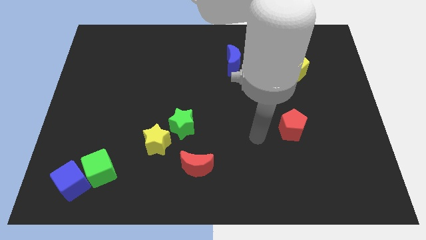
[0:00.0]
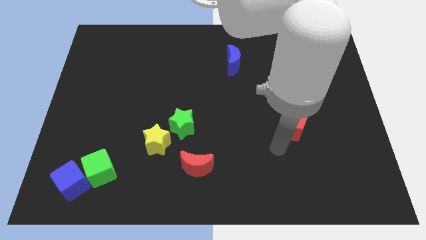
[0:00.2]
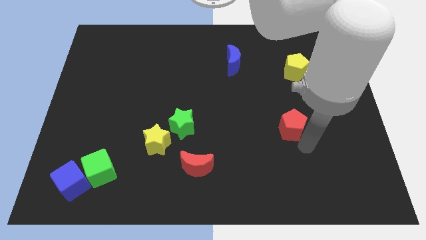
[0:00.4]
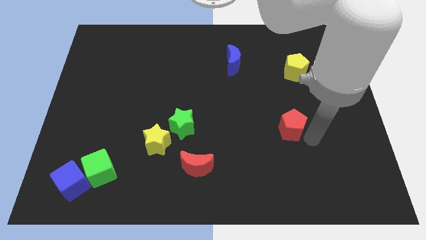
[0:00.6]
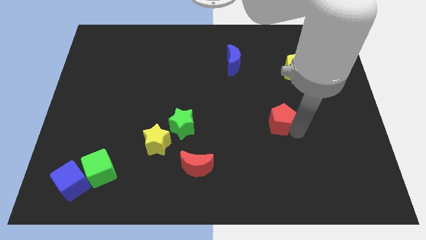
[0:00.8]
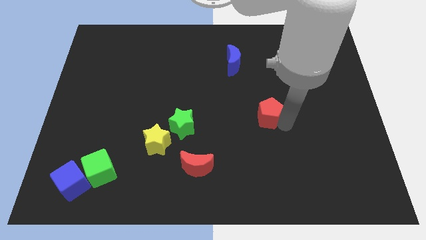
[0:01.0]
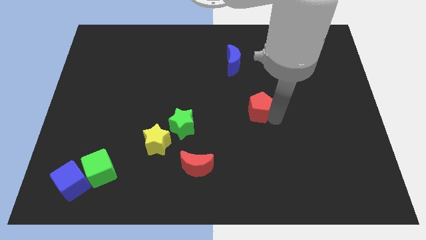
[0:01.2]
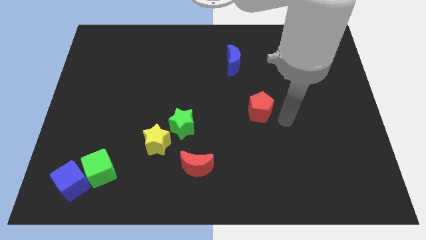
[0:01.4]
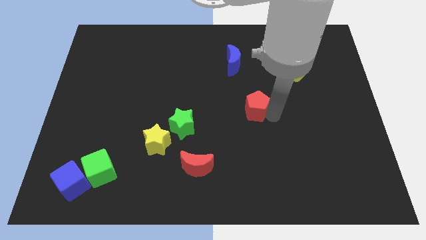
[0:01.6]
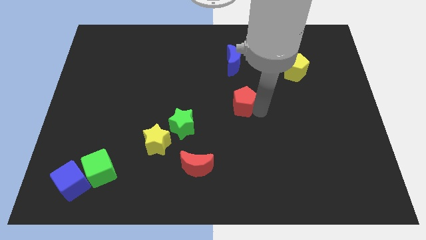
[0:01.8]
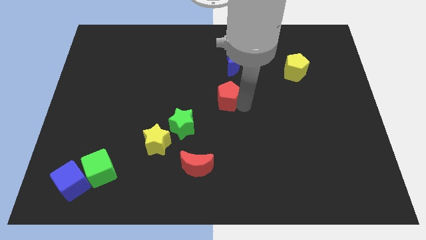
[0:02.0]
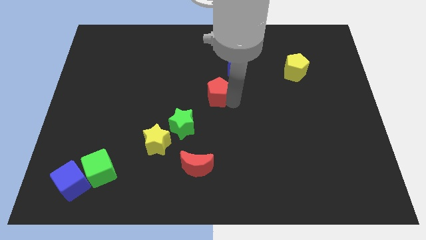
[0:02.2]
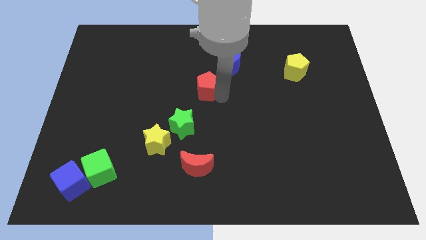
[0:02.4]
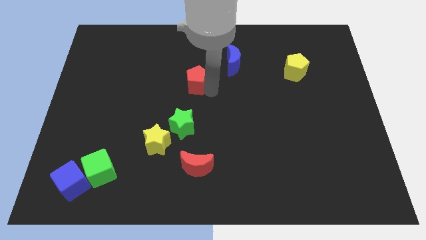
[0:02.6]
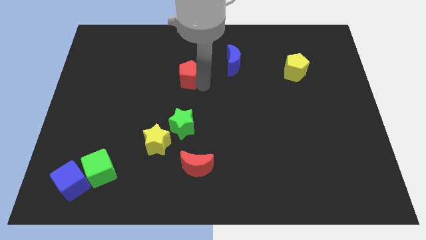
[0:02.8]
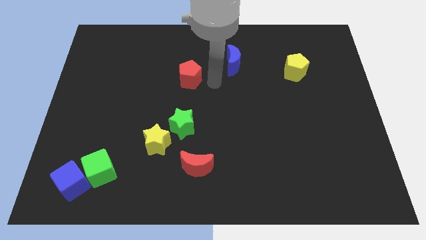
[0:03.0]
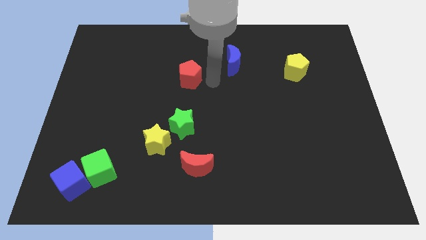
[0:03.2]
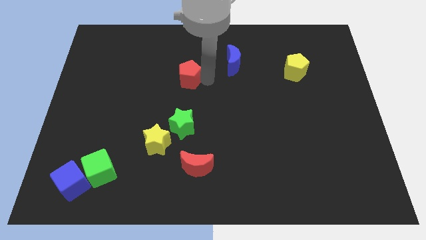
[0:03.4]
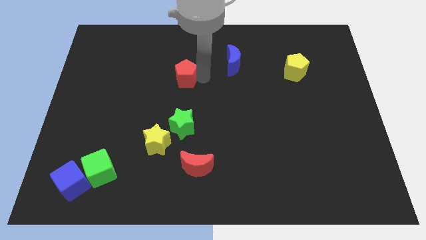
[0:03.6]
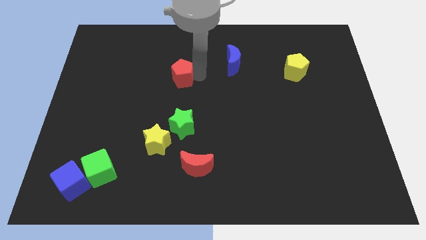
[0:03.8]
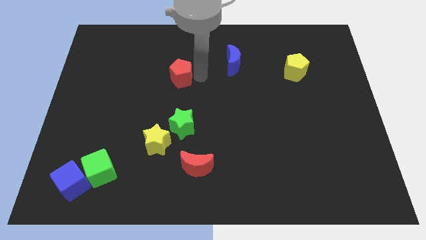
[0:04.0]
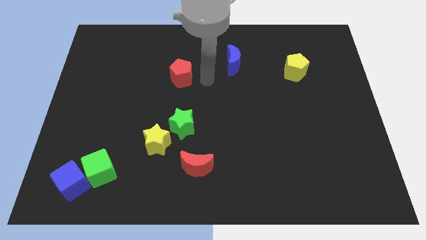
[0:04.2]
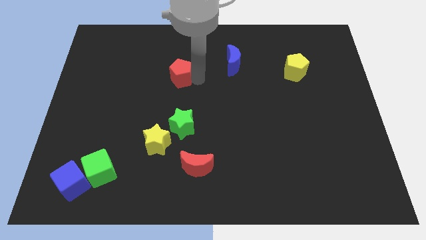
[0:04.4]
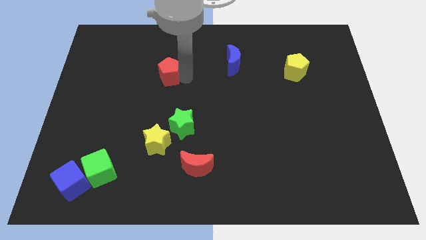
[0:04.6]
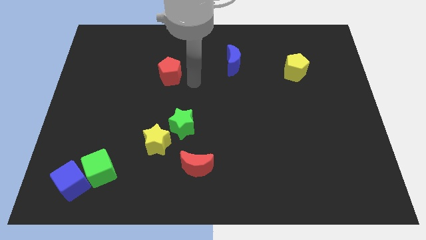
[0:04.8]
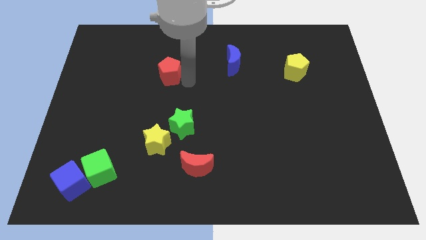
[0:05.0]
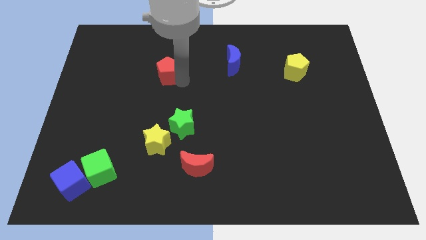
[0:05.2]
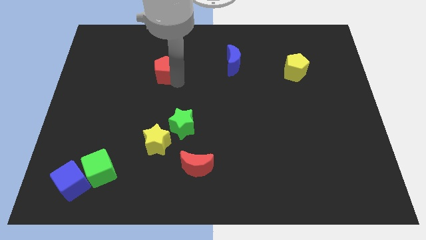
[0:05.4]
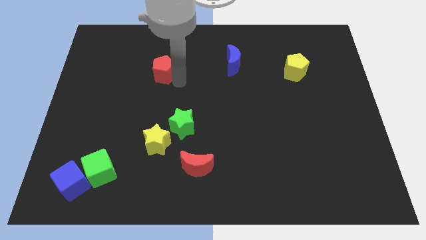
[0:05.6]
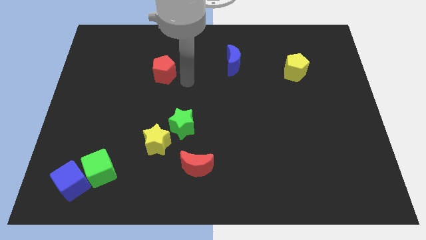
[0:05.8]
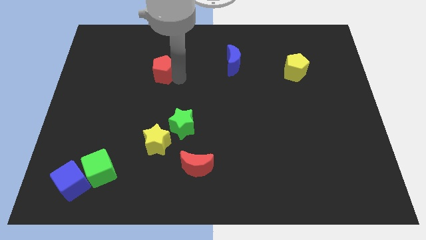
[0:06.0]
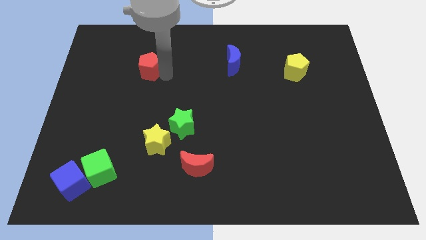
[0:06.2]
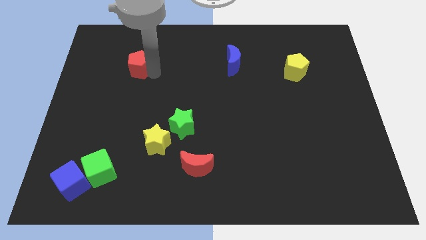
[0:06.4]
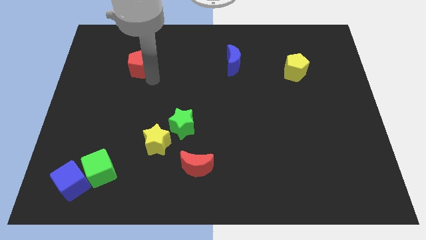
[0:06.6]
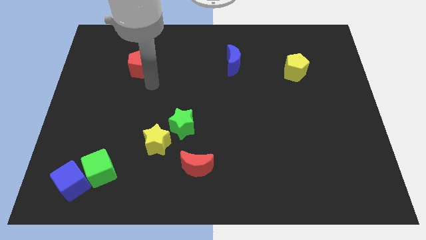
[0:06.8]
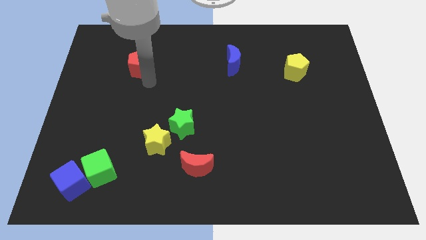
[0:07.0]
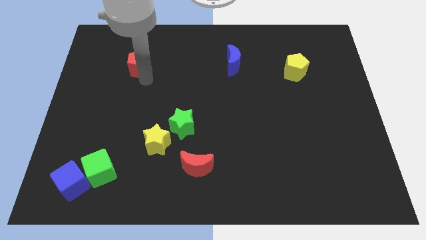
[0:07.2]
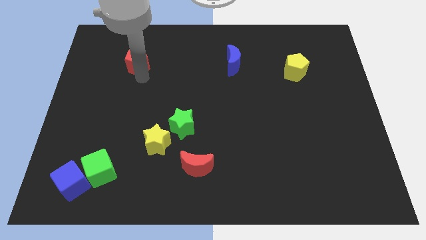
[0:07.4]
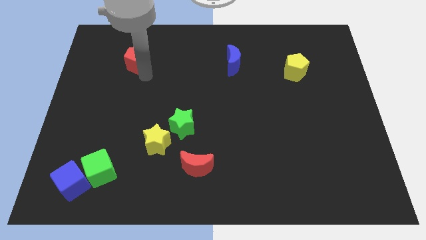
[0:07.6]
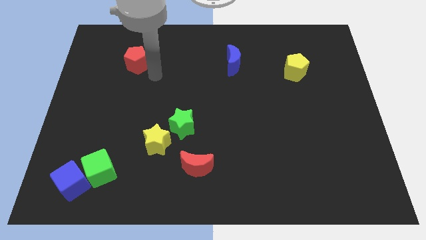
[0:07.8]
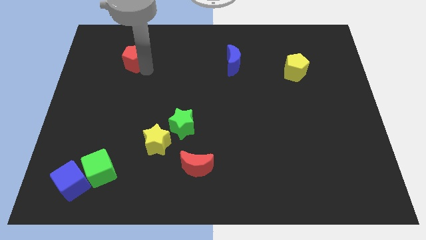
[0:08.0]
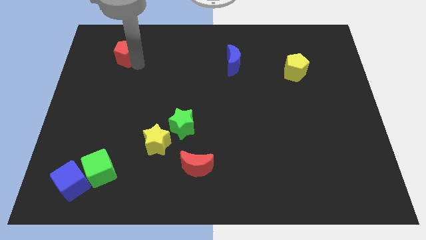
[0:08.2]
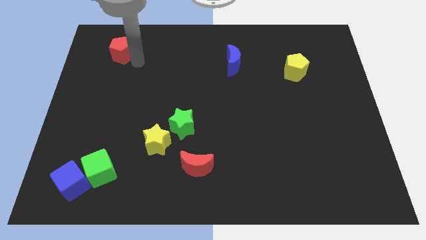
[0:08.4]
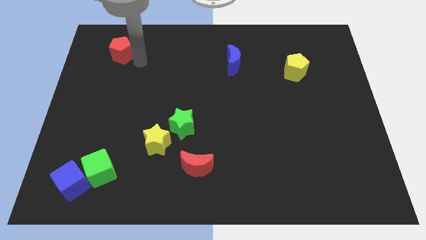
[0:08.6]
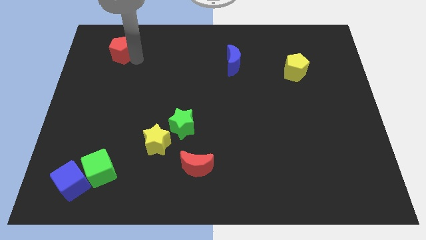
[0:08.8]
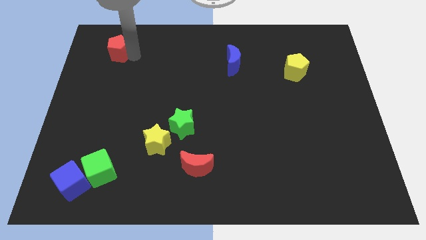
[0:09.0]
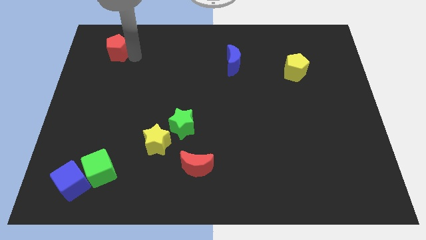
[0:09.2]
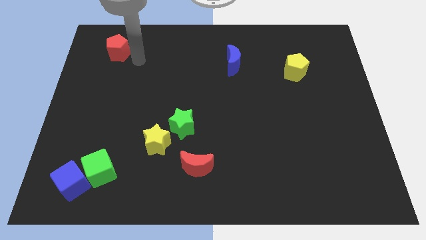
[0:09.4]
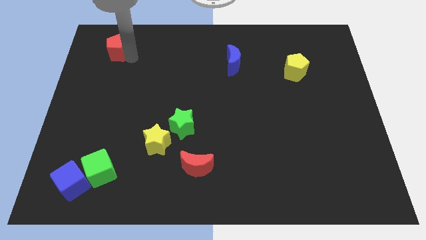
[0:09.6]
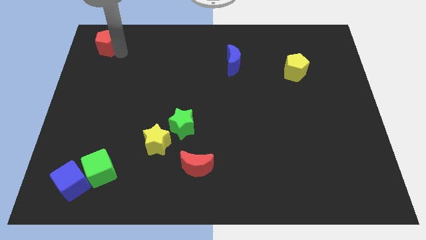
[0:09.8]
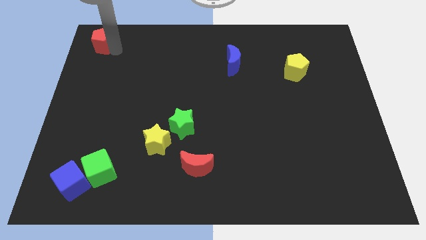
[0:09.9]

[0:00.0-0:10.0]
slide the red pentagon to the upper left corner

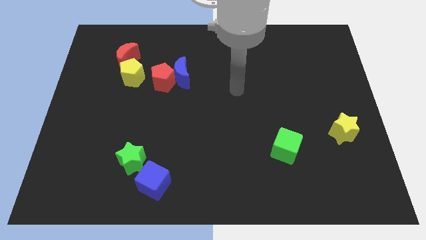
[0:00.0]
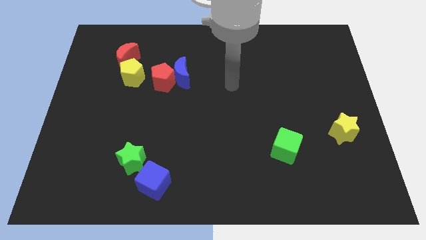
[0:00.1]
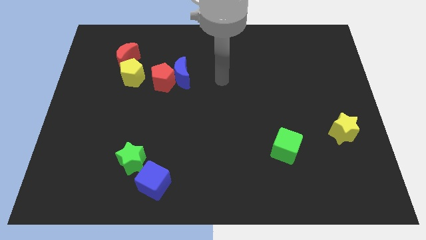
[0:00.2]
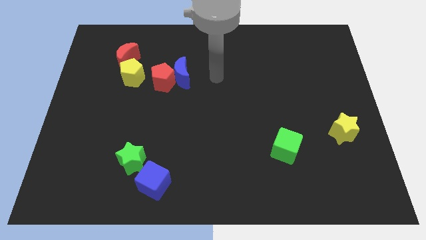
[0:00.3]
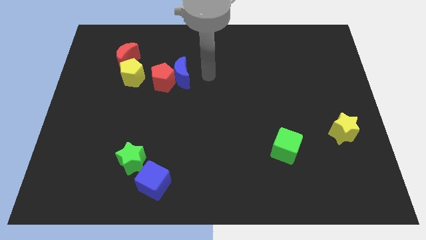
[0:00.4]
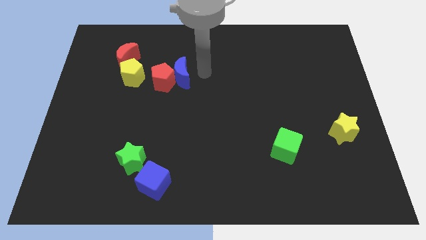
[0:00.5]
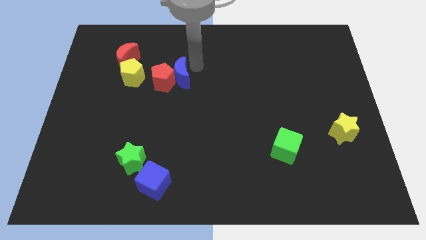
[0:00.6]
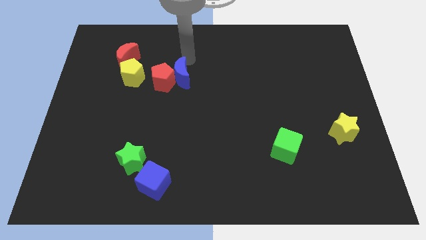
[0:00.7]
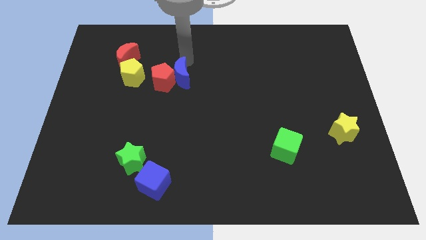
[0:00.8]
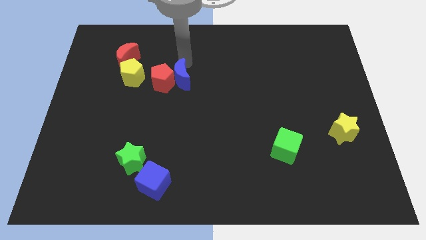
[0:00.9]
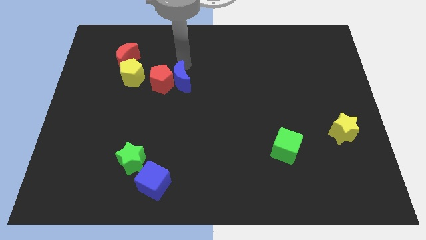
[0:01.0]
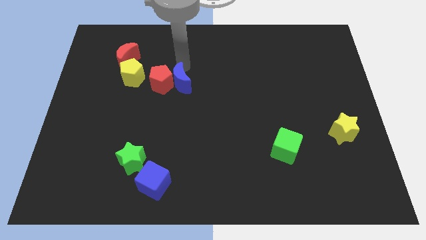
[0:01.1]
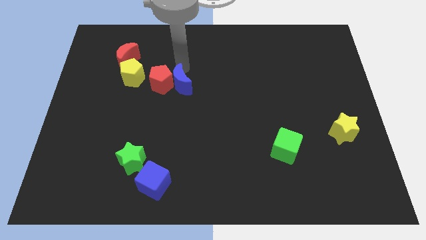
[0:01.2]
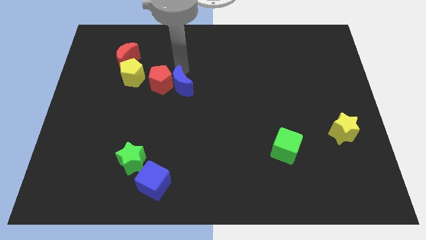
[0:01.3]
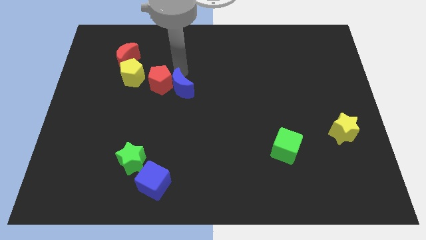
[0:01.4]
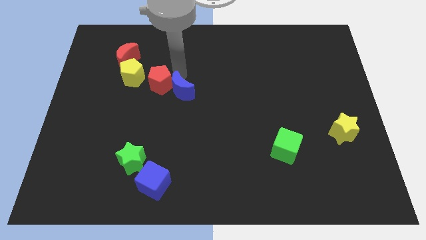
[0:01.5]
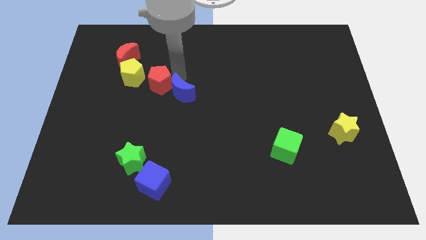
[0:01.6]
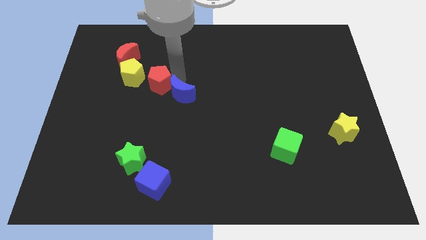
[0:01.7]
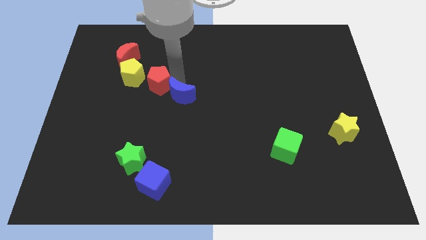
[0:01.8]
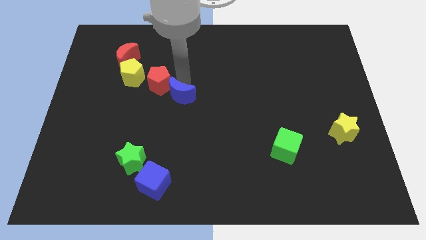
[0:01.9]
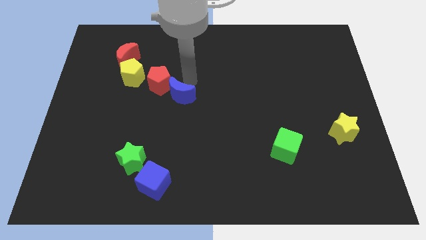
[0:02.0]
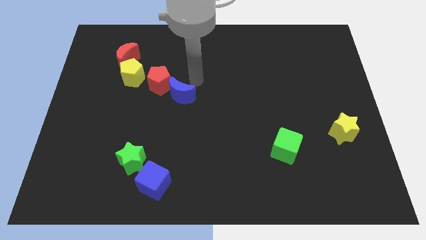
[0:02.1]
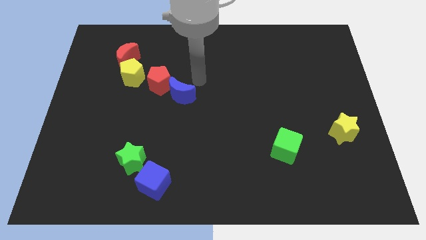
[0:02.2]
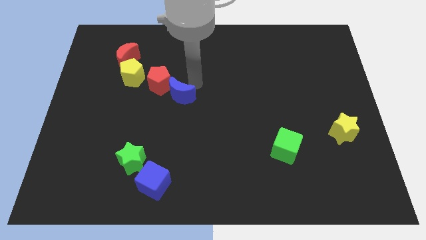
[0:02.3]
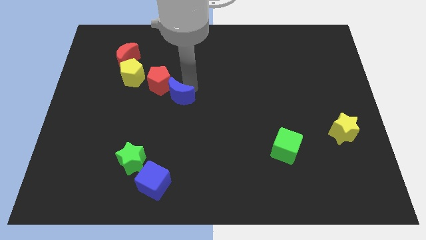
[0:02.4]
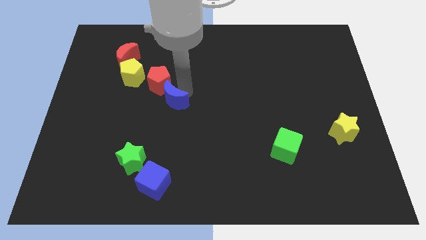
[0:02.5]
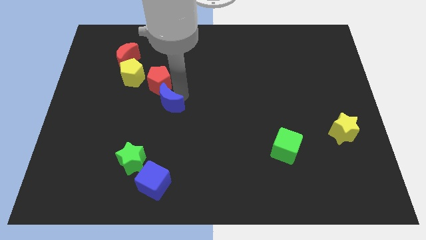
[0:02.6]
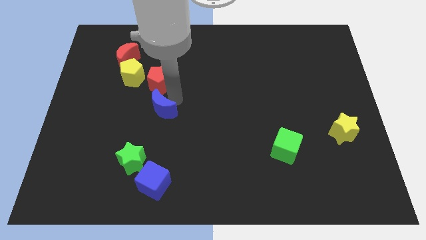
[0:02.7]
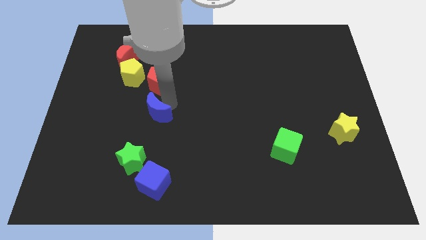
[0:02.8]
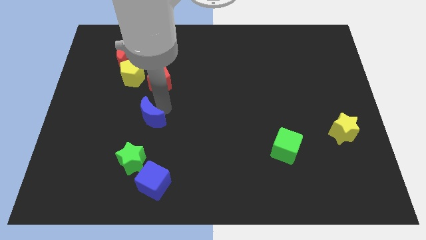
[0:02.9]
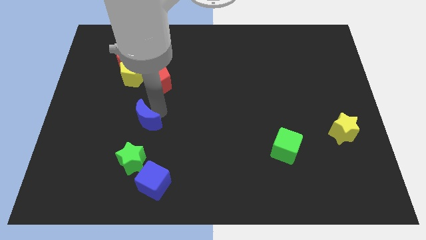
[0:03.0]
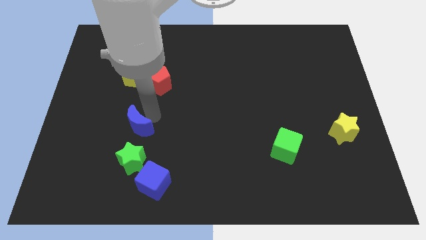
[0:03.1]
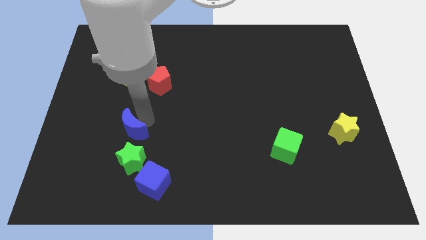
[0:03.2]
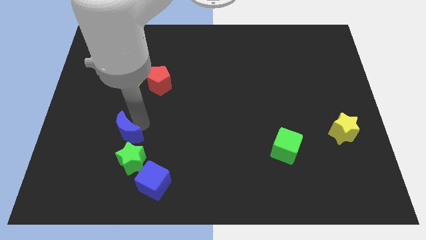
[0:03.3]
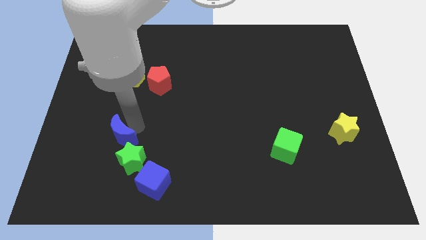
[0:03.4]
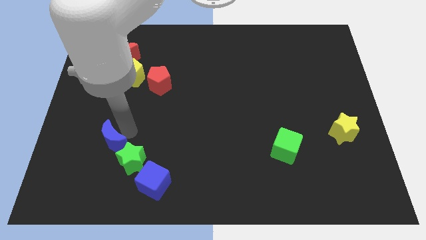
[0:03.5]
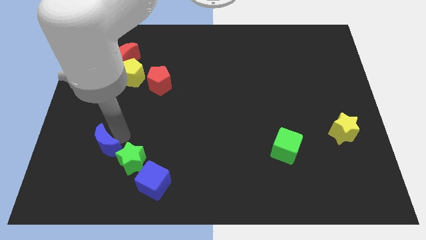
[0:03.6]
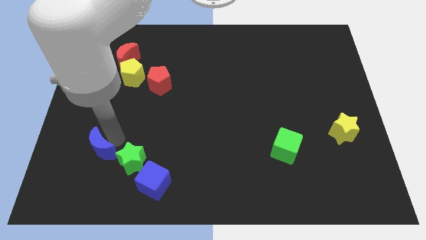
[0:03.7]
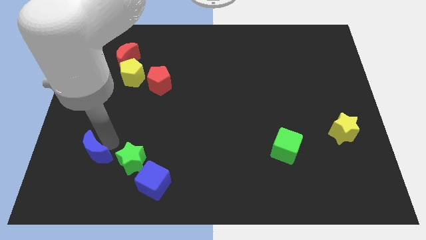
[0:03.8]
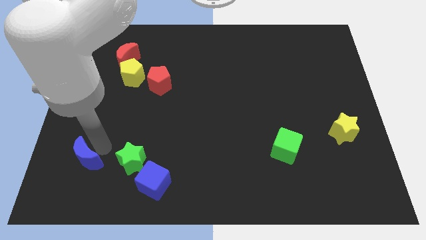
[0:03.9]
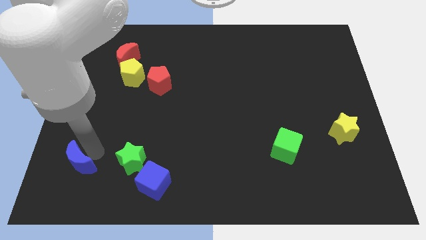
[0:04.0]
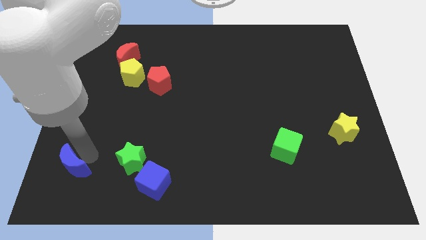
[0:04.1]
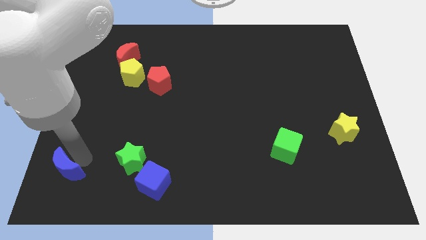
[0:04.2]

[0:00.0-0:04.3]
slide the blue moon to the lower left corner
